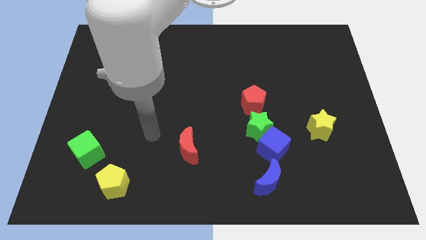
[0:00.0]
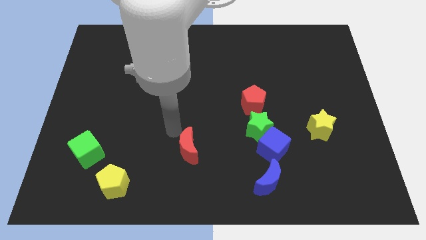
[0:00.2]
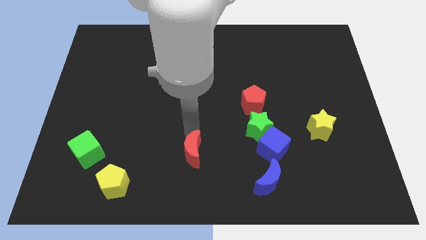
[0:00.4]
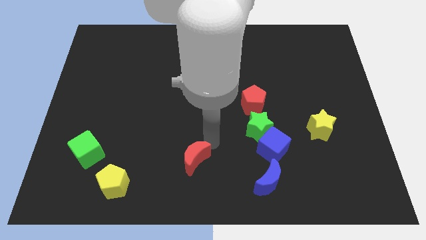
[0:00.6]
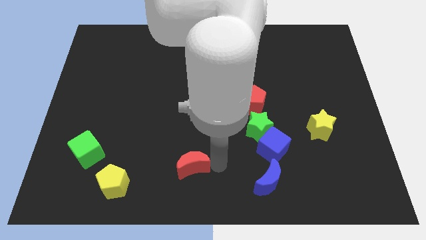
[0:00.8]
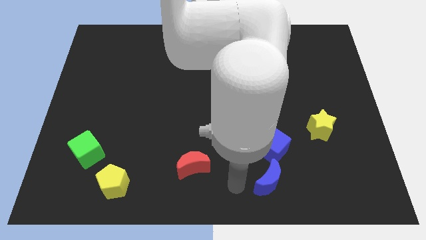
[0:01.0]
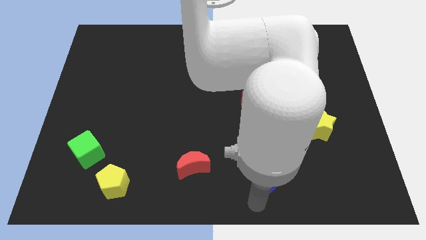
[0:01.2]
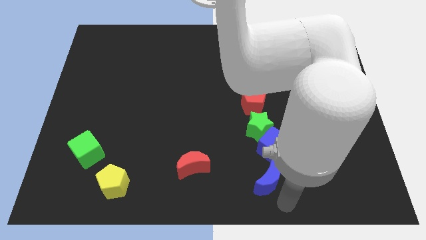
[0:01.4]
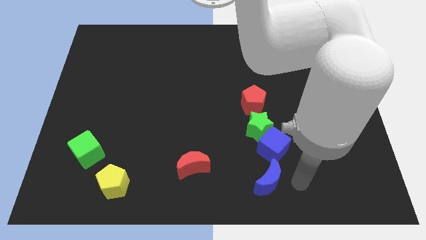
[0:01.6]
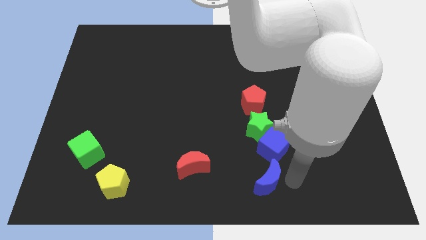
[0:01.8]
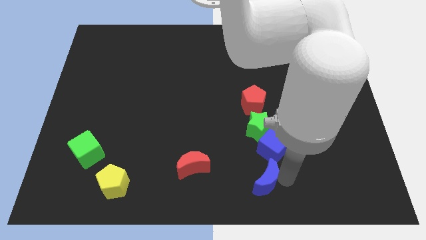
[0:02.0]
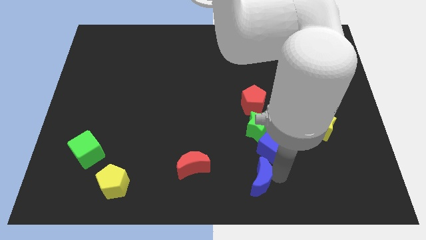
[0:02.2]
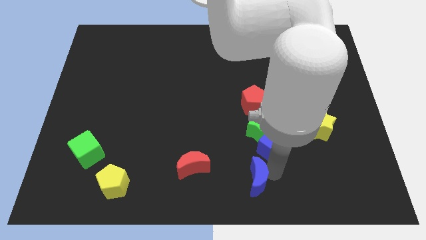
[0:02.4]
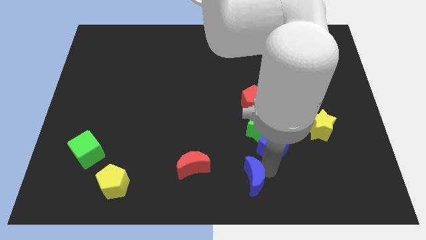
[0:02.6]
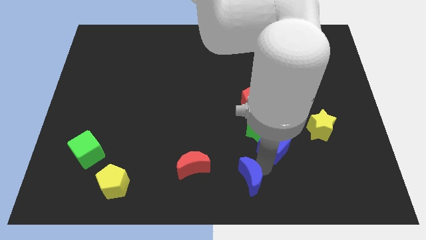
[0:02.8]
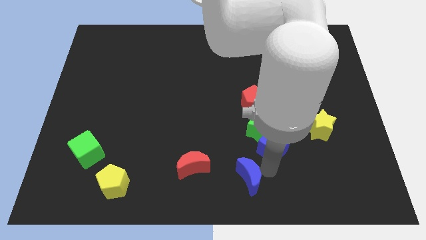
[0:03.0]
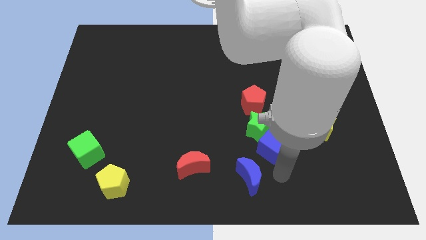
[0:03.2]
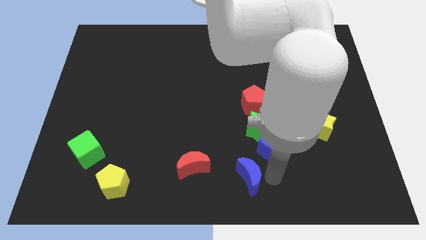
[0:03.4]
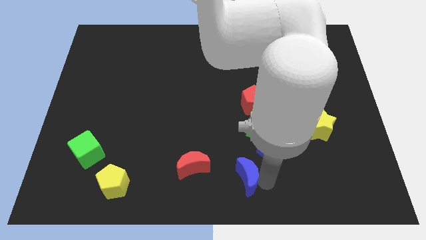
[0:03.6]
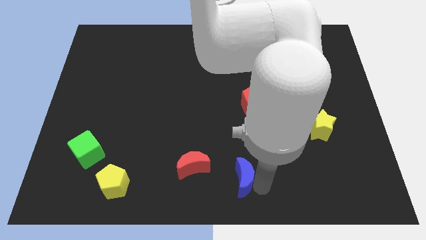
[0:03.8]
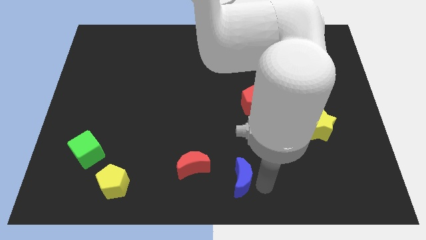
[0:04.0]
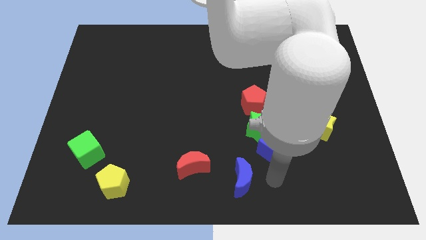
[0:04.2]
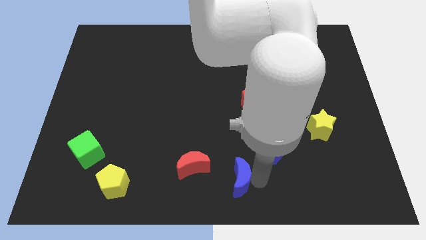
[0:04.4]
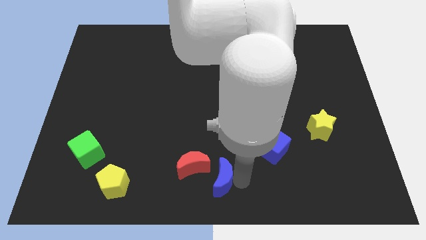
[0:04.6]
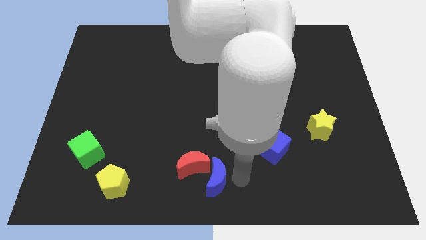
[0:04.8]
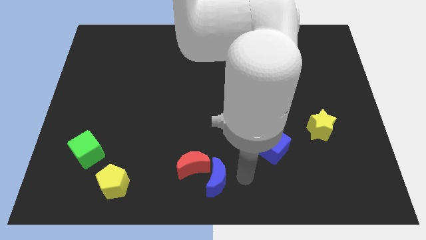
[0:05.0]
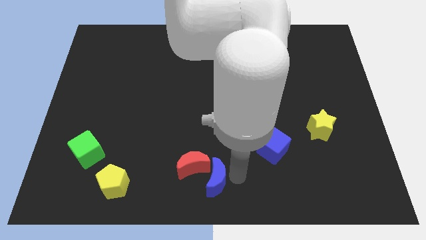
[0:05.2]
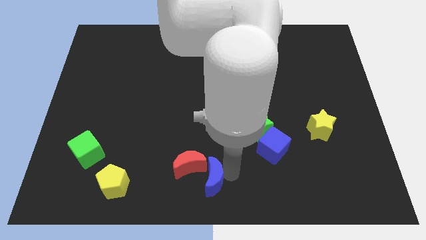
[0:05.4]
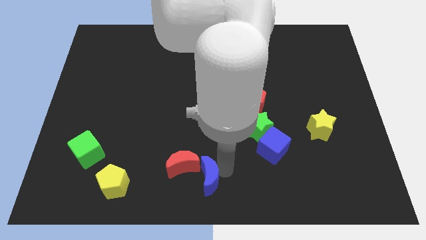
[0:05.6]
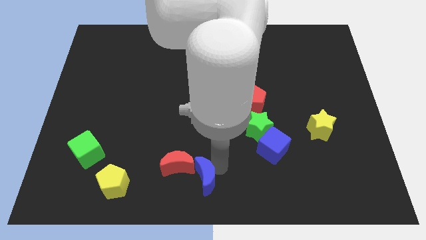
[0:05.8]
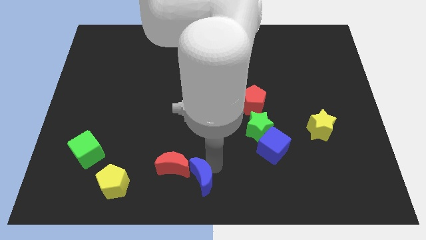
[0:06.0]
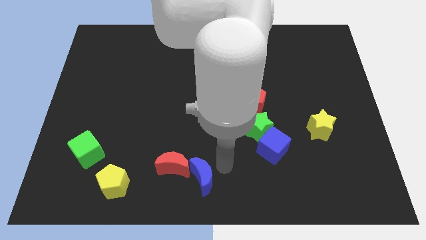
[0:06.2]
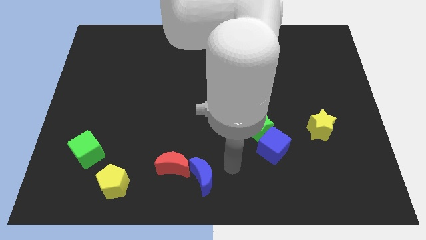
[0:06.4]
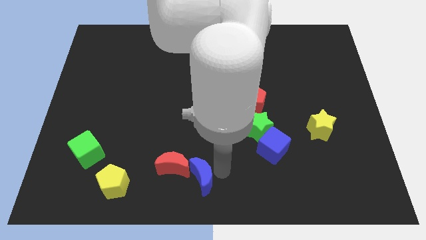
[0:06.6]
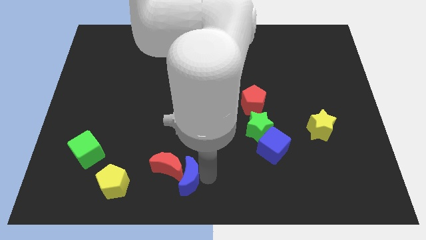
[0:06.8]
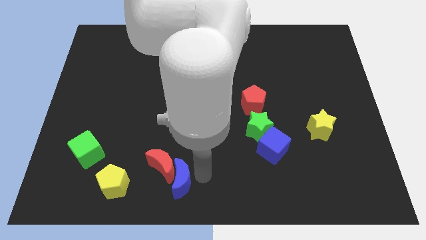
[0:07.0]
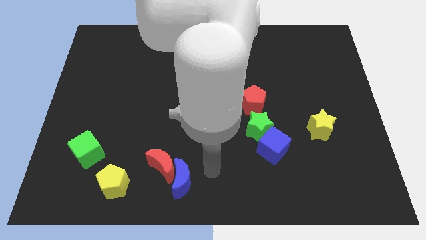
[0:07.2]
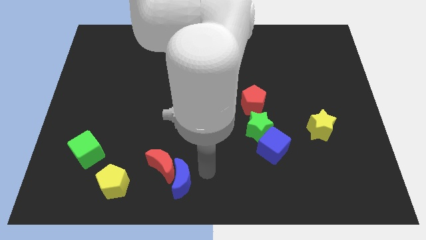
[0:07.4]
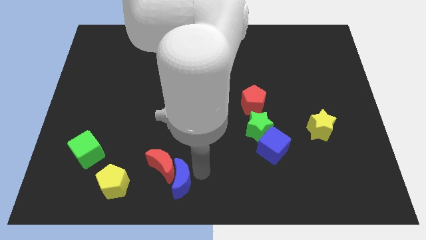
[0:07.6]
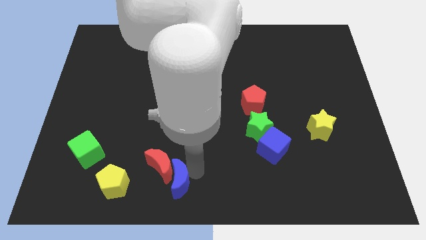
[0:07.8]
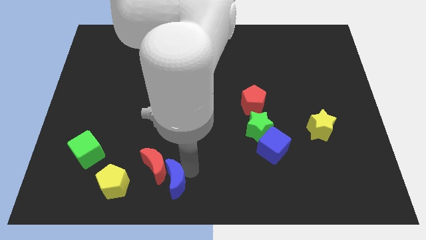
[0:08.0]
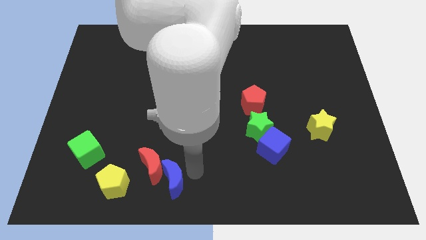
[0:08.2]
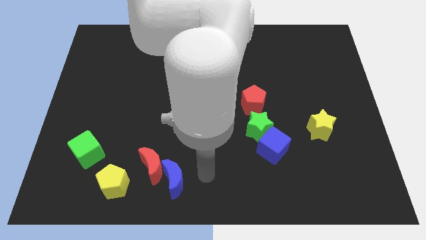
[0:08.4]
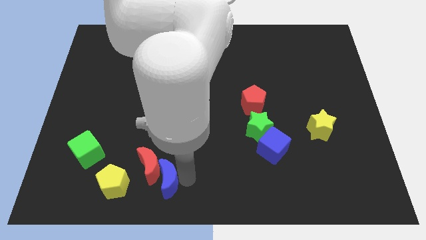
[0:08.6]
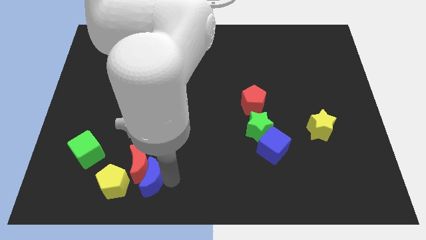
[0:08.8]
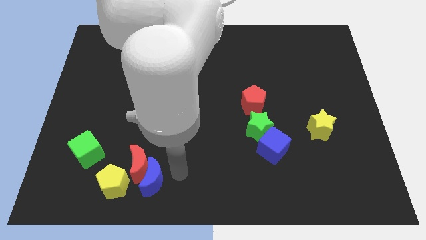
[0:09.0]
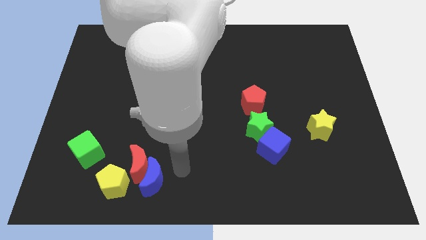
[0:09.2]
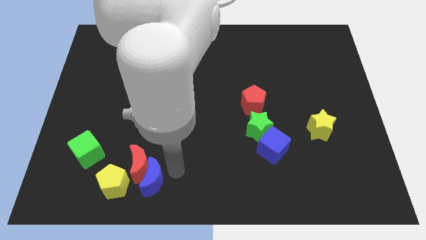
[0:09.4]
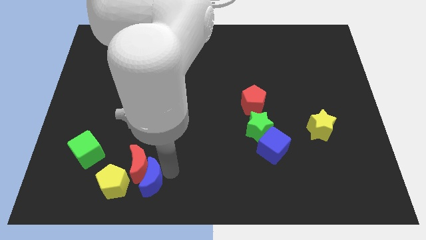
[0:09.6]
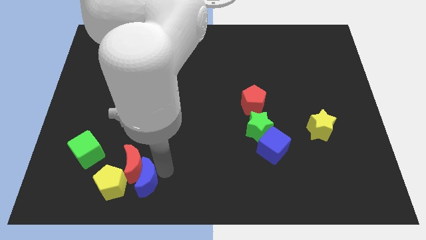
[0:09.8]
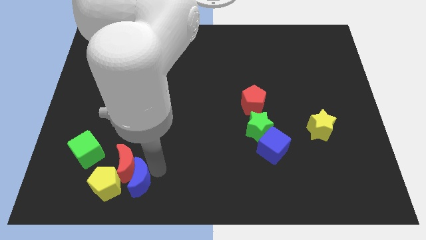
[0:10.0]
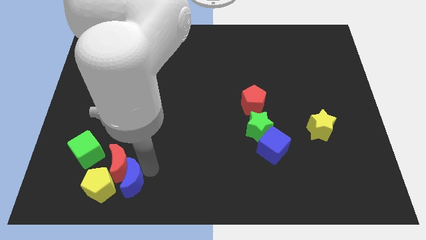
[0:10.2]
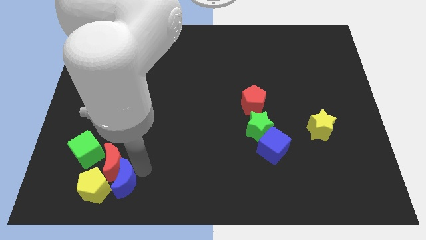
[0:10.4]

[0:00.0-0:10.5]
move the blue moon close to the yellow pentagon

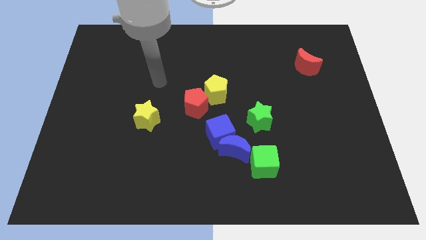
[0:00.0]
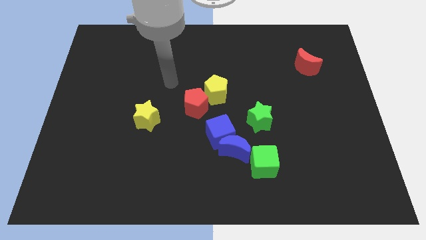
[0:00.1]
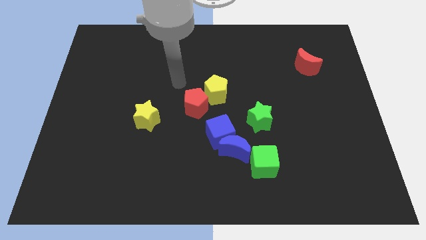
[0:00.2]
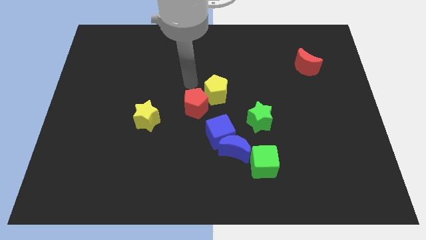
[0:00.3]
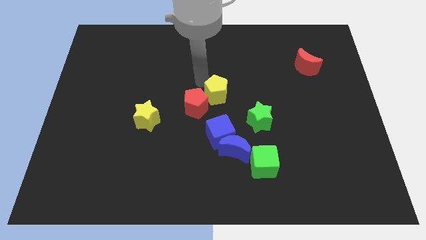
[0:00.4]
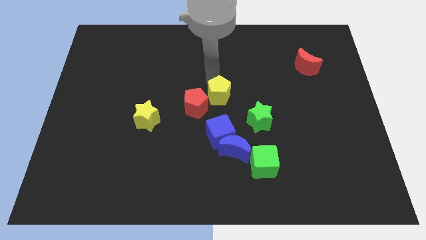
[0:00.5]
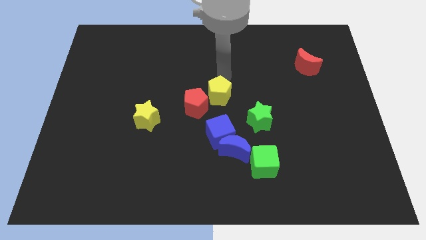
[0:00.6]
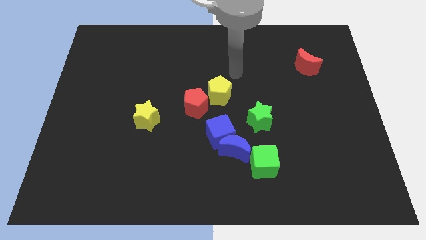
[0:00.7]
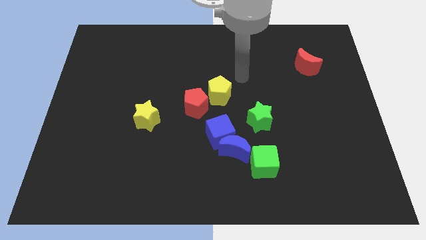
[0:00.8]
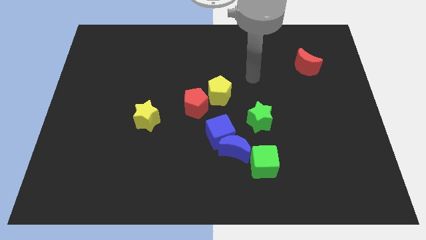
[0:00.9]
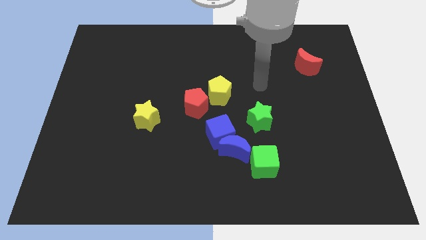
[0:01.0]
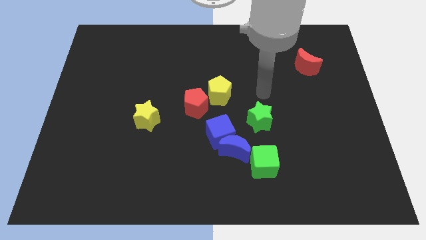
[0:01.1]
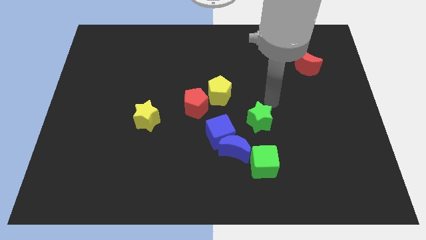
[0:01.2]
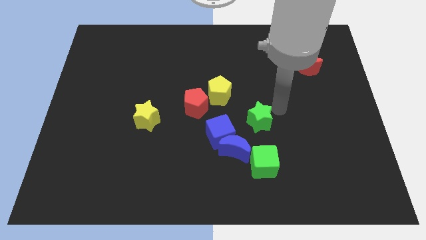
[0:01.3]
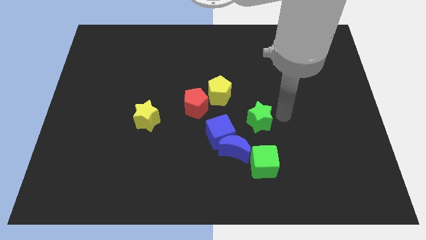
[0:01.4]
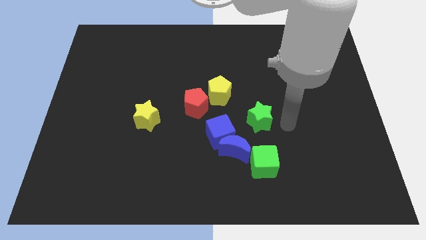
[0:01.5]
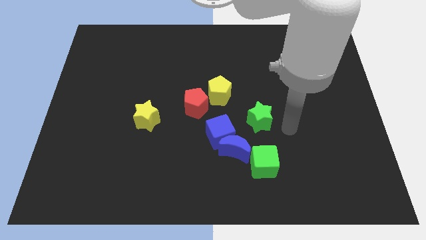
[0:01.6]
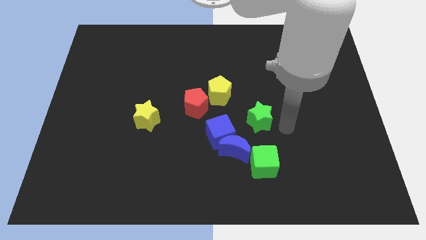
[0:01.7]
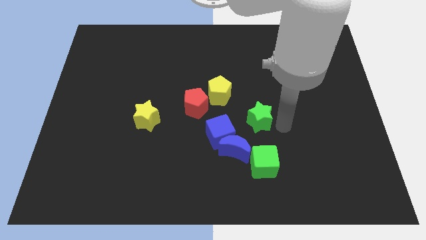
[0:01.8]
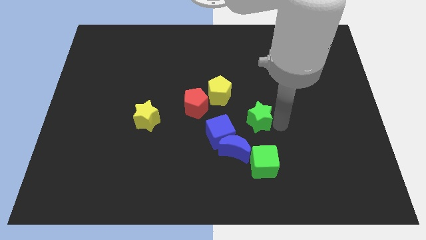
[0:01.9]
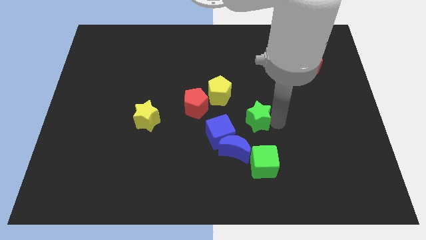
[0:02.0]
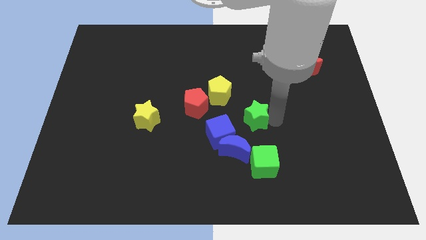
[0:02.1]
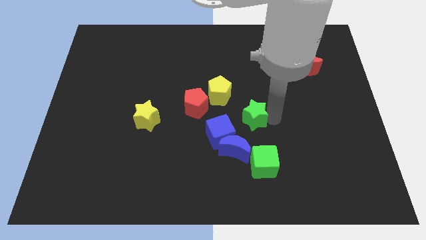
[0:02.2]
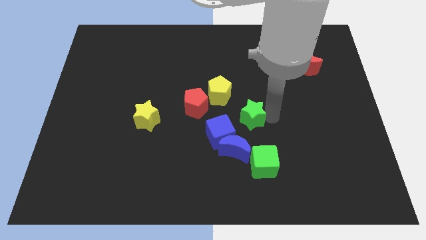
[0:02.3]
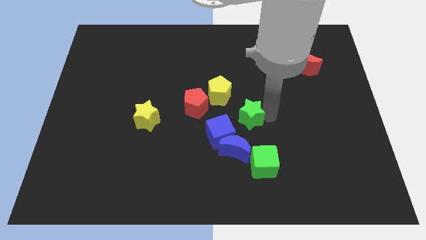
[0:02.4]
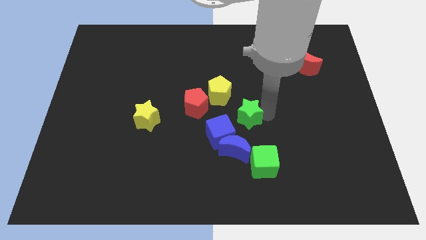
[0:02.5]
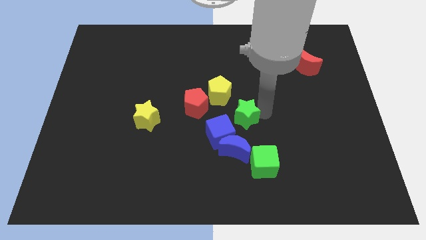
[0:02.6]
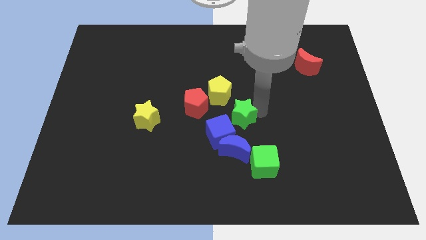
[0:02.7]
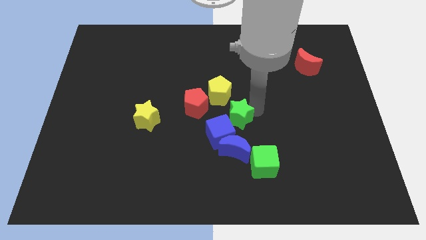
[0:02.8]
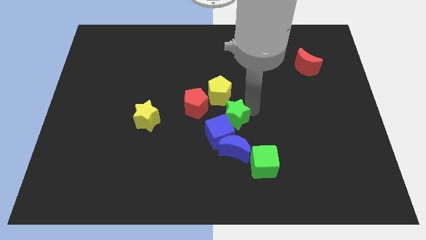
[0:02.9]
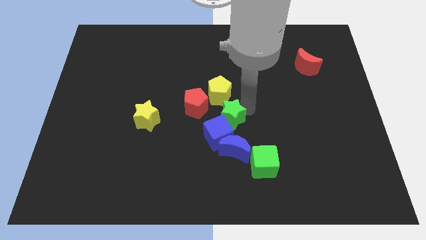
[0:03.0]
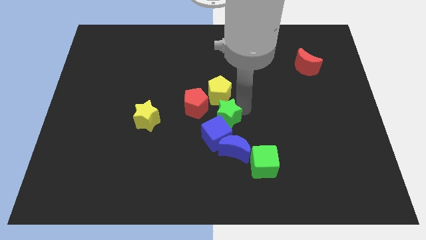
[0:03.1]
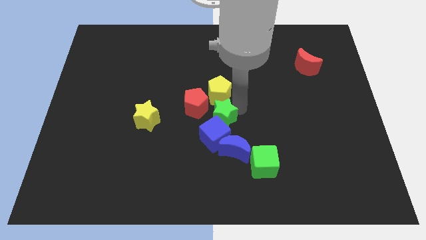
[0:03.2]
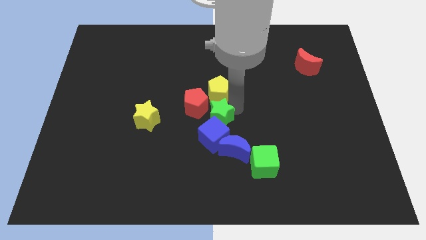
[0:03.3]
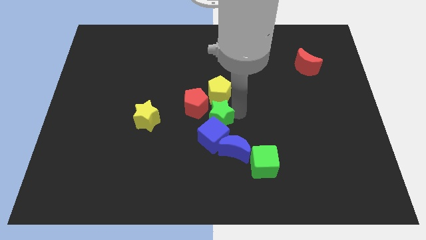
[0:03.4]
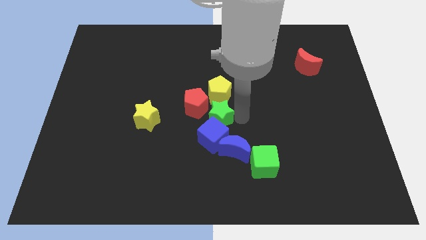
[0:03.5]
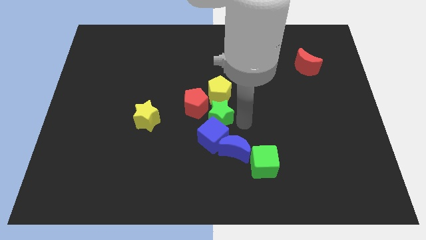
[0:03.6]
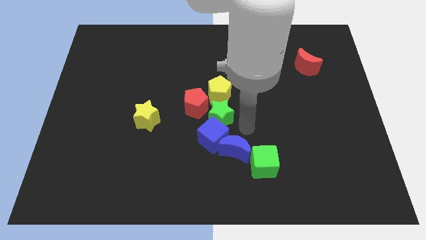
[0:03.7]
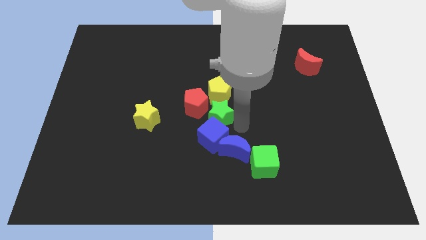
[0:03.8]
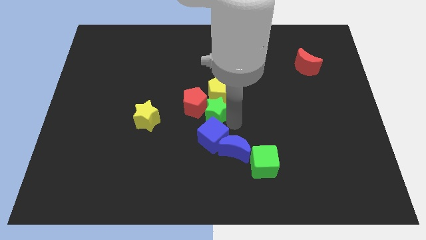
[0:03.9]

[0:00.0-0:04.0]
slide the green star next to the red pentagon
